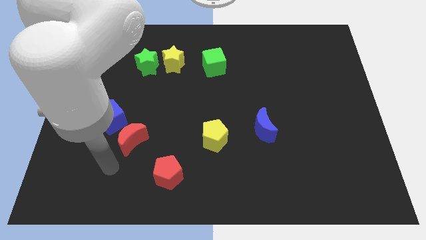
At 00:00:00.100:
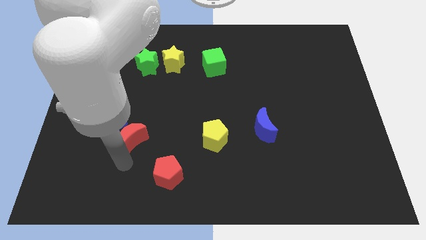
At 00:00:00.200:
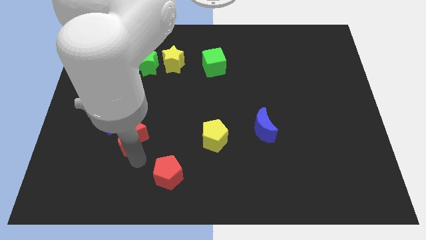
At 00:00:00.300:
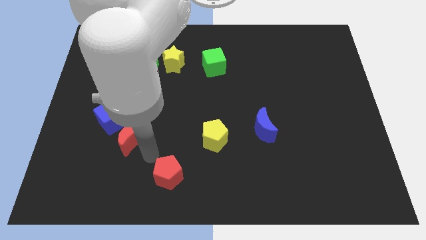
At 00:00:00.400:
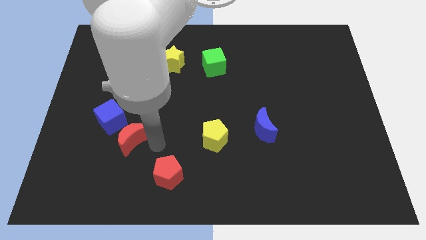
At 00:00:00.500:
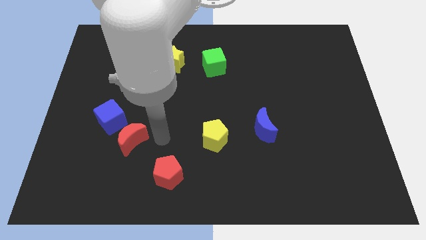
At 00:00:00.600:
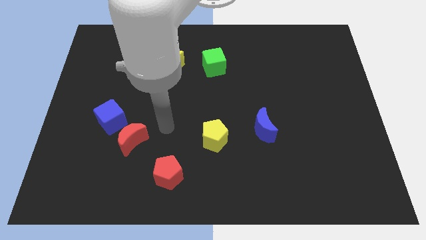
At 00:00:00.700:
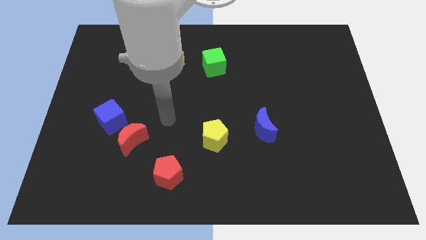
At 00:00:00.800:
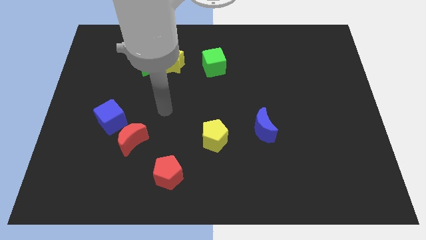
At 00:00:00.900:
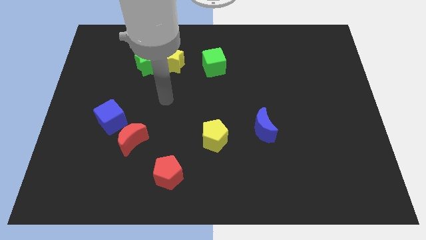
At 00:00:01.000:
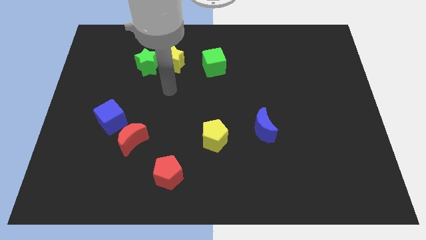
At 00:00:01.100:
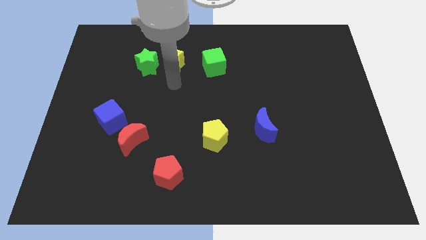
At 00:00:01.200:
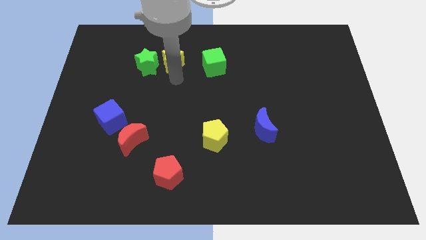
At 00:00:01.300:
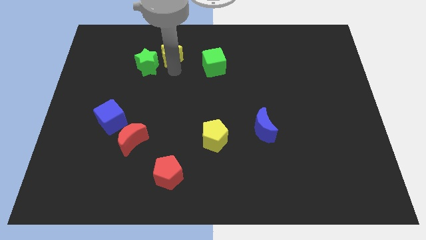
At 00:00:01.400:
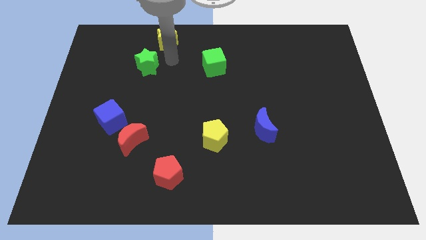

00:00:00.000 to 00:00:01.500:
separate the green star from the yellow star

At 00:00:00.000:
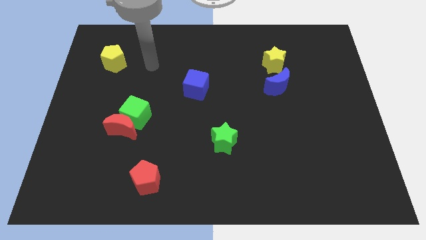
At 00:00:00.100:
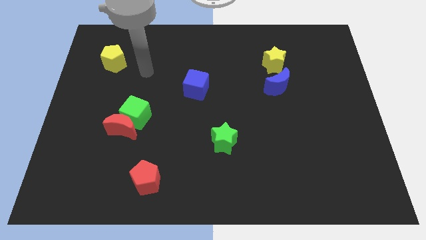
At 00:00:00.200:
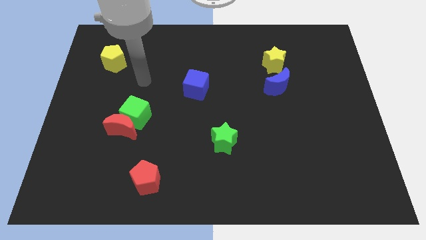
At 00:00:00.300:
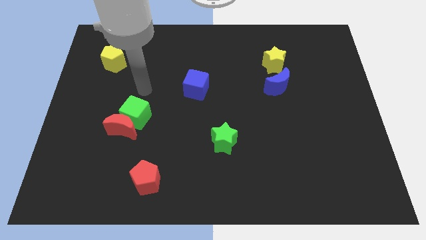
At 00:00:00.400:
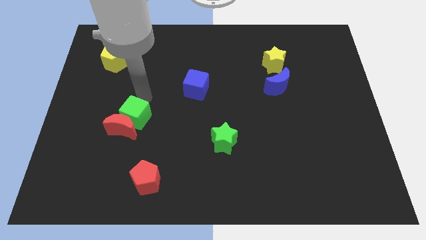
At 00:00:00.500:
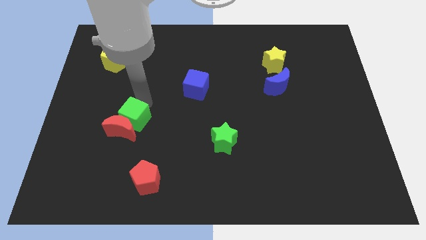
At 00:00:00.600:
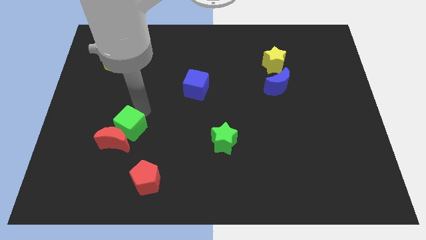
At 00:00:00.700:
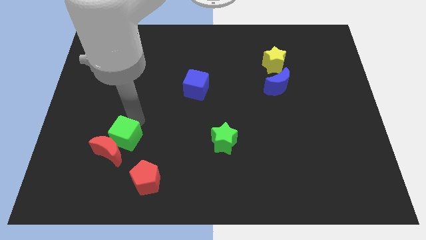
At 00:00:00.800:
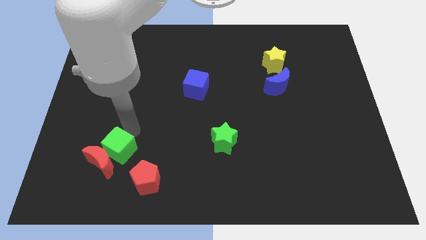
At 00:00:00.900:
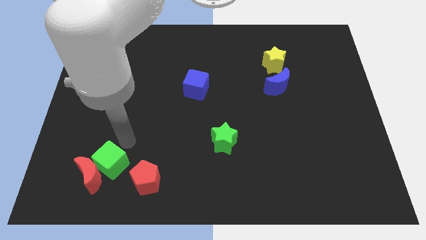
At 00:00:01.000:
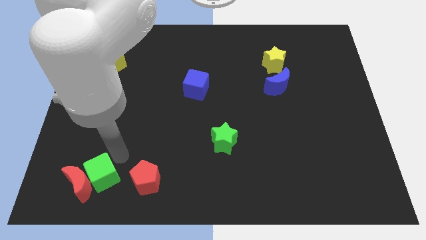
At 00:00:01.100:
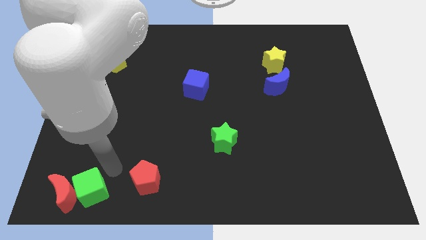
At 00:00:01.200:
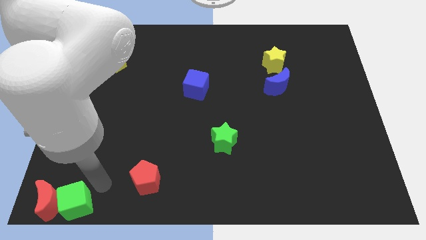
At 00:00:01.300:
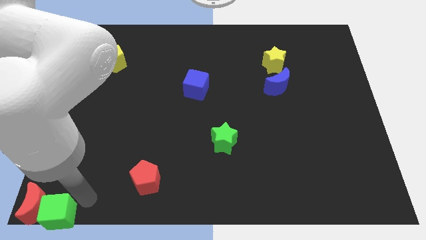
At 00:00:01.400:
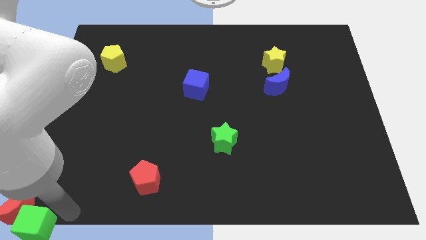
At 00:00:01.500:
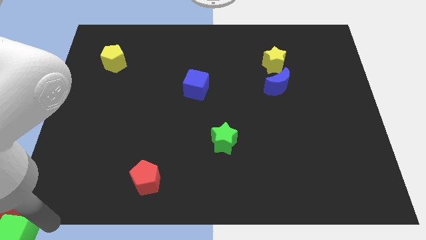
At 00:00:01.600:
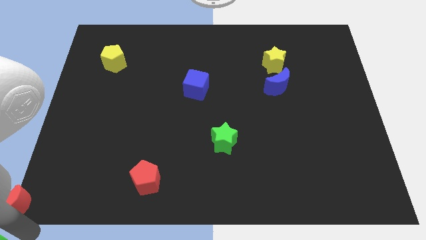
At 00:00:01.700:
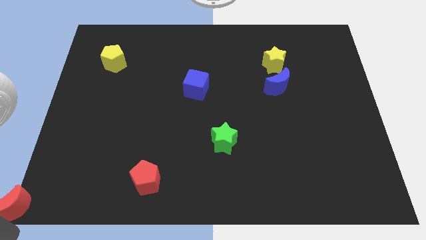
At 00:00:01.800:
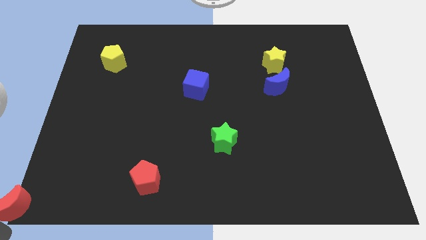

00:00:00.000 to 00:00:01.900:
pull the red moon apart from the green cube

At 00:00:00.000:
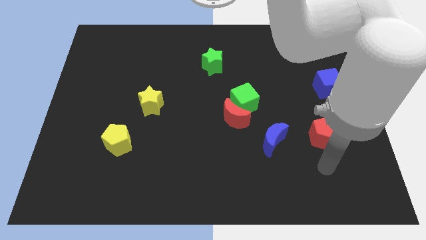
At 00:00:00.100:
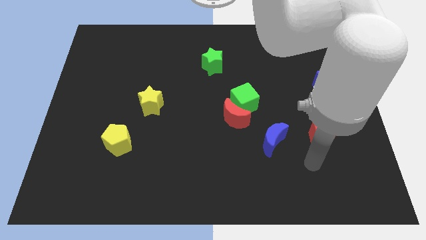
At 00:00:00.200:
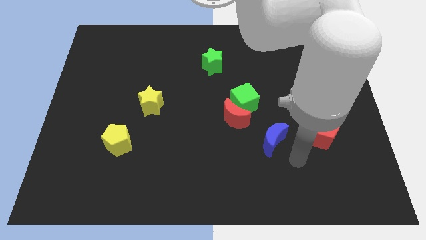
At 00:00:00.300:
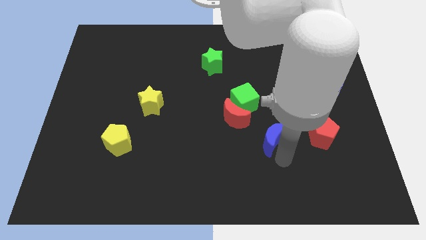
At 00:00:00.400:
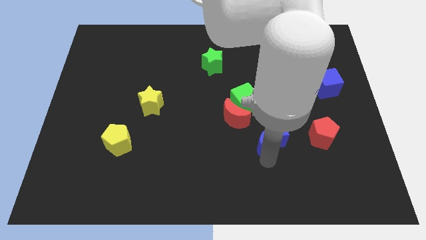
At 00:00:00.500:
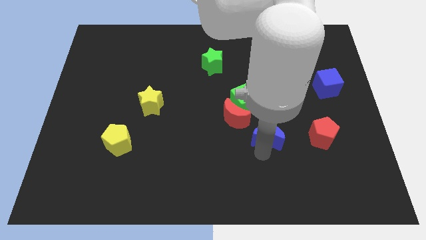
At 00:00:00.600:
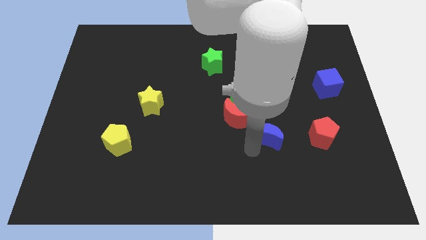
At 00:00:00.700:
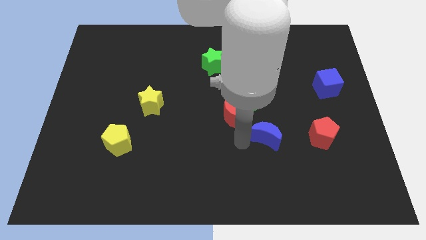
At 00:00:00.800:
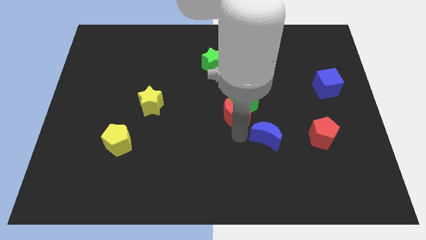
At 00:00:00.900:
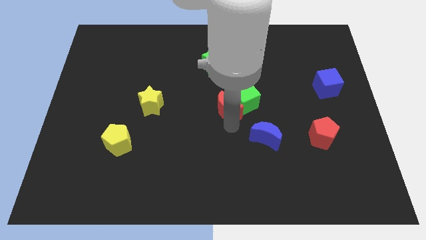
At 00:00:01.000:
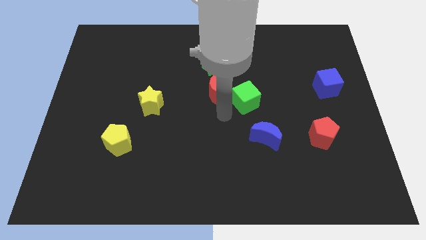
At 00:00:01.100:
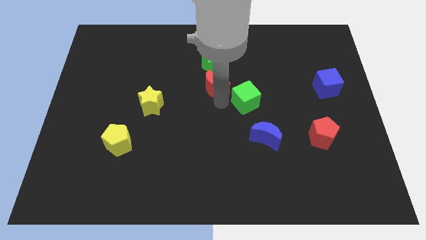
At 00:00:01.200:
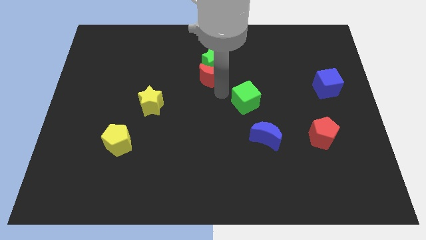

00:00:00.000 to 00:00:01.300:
separate the green cube from the red moon

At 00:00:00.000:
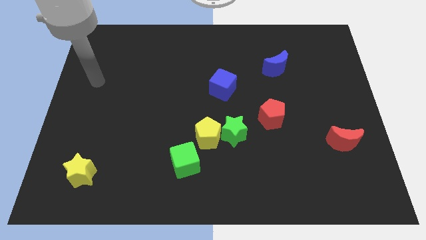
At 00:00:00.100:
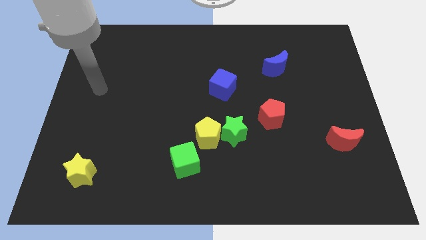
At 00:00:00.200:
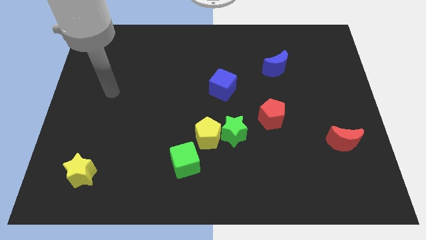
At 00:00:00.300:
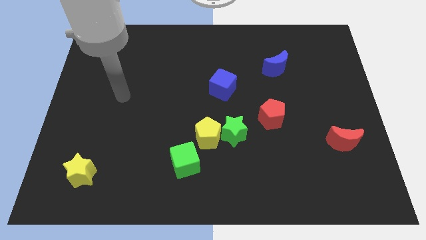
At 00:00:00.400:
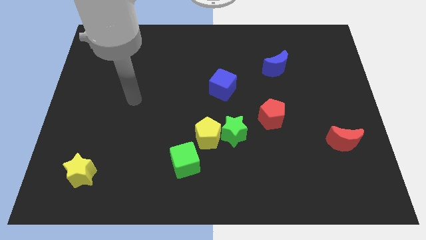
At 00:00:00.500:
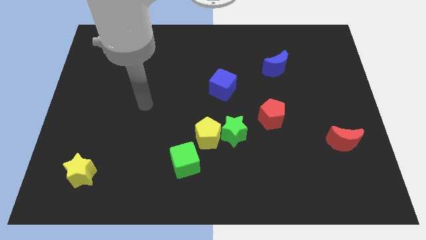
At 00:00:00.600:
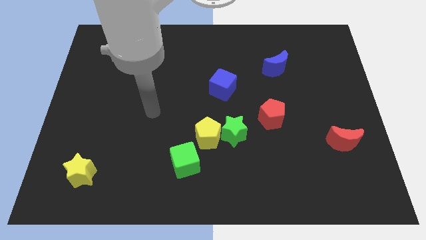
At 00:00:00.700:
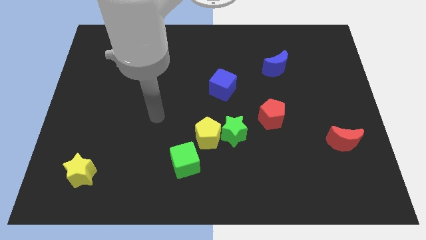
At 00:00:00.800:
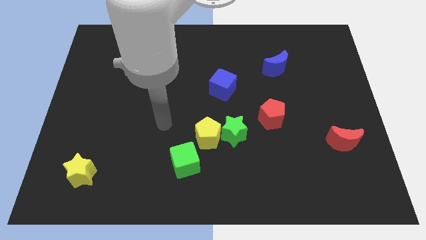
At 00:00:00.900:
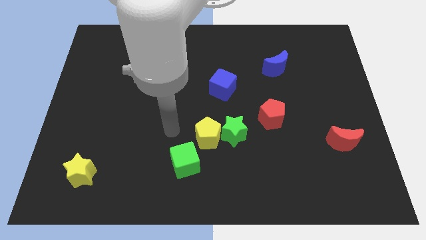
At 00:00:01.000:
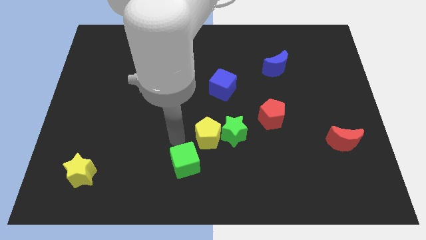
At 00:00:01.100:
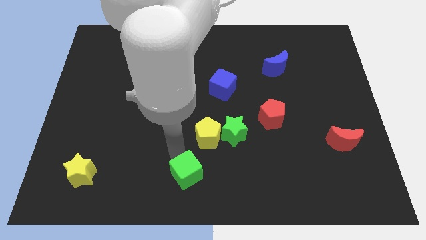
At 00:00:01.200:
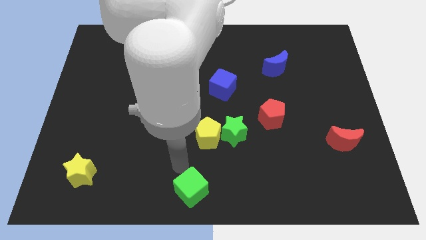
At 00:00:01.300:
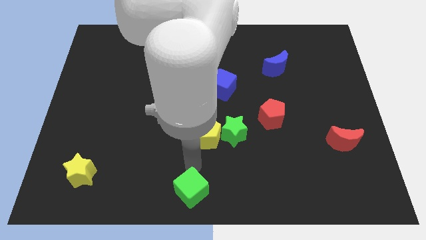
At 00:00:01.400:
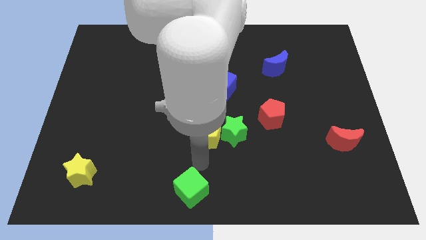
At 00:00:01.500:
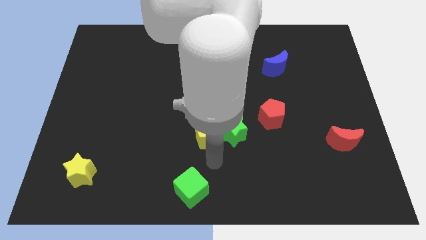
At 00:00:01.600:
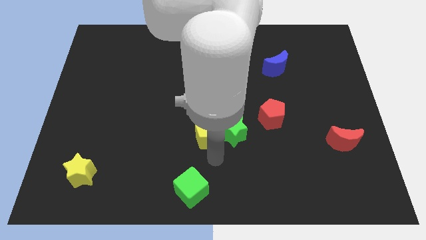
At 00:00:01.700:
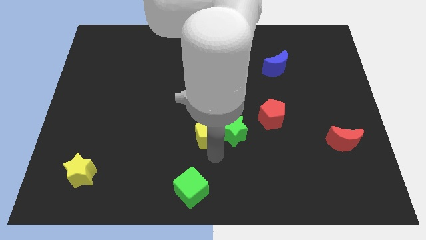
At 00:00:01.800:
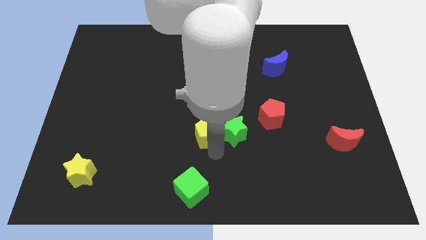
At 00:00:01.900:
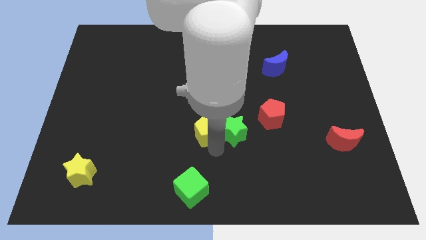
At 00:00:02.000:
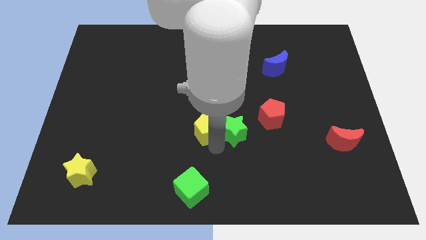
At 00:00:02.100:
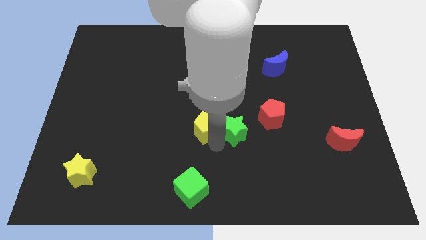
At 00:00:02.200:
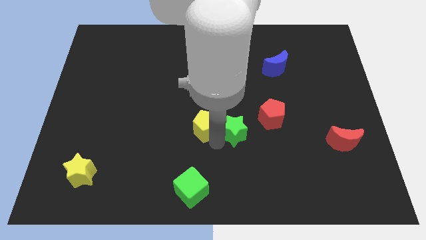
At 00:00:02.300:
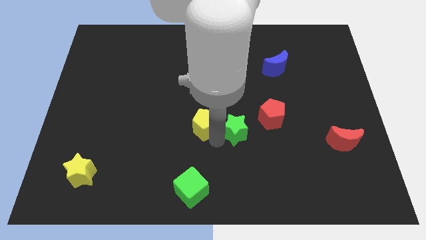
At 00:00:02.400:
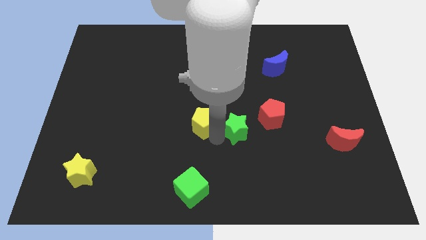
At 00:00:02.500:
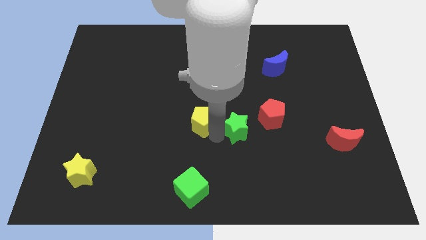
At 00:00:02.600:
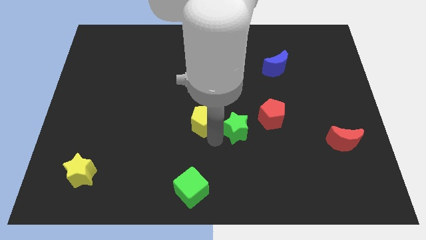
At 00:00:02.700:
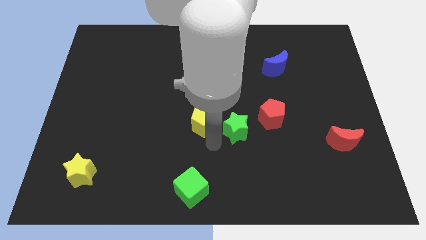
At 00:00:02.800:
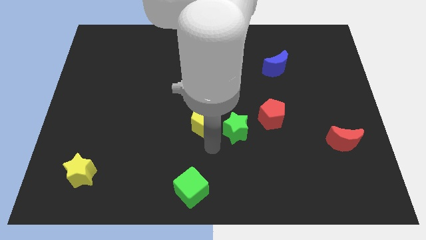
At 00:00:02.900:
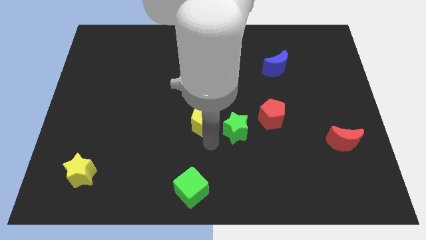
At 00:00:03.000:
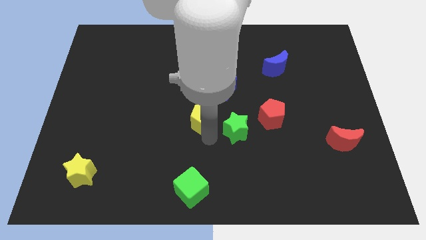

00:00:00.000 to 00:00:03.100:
move the yellow pentagon away from the green star and green cube

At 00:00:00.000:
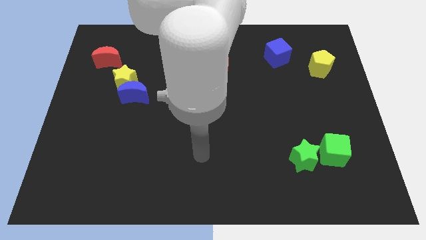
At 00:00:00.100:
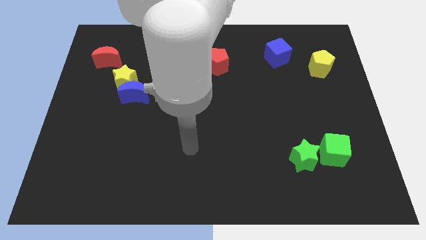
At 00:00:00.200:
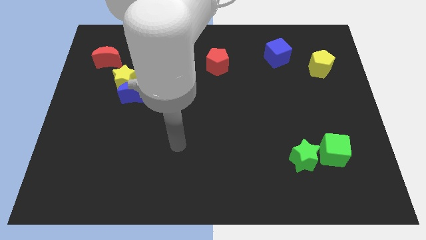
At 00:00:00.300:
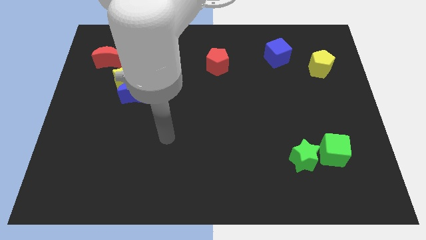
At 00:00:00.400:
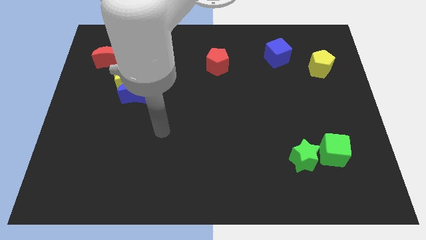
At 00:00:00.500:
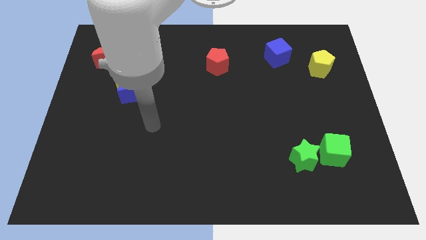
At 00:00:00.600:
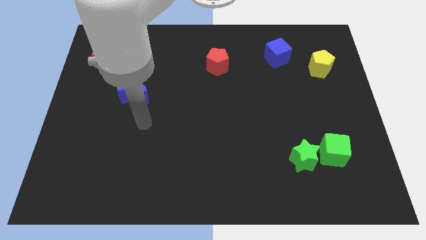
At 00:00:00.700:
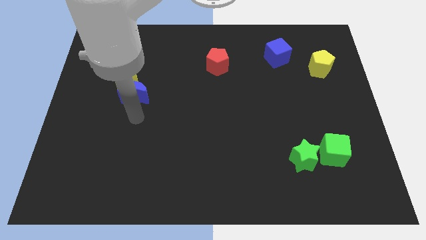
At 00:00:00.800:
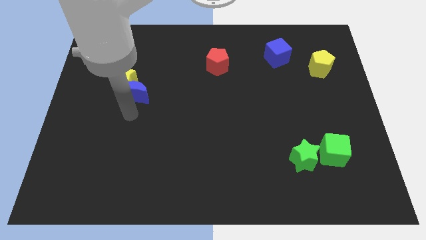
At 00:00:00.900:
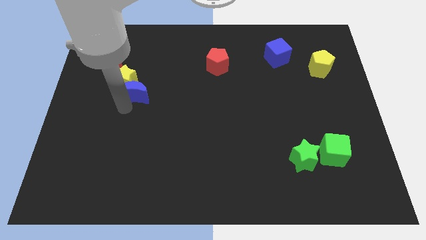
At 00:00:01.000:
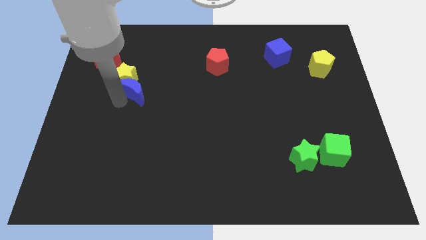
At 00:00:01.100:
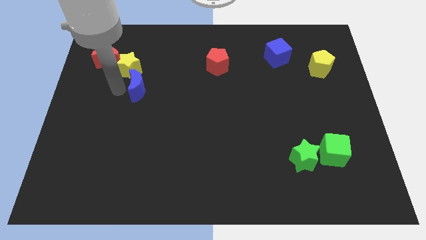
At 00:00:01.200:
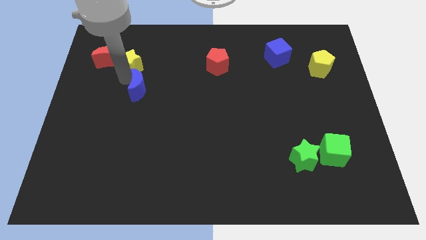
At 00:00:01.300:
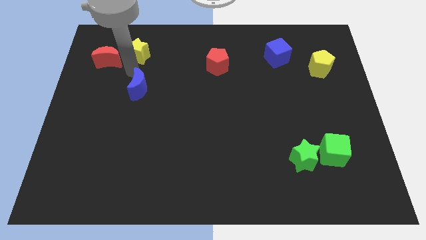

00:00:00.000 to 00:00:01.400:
separate the blue moon from the yellow star
